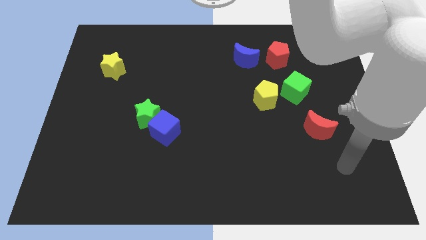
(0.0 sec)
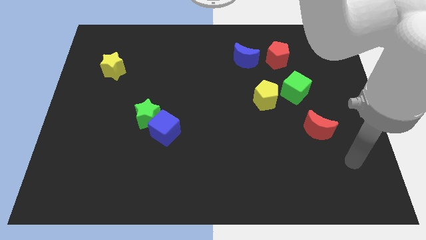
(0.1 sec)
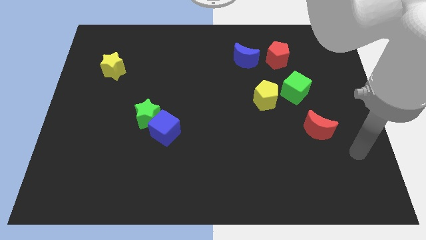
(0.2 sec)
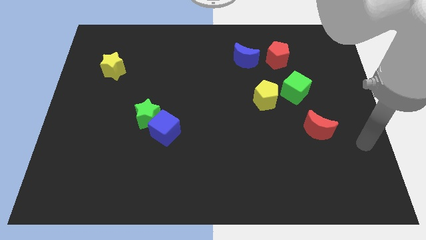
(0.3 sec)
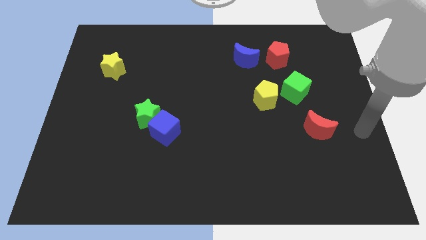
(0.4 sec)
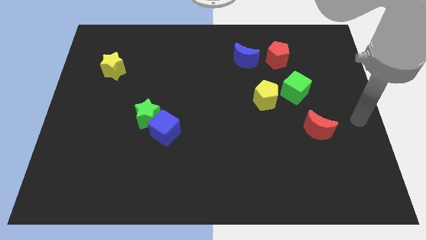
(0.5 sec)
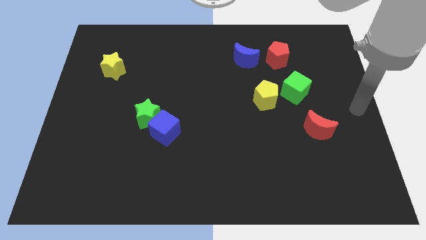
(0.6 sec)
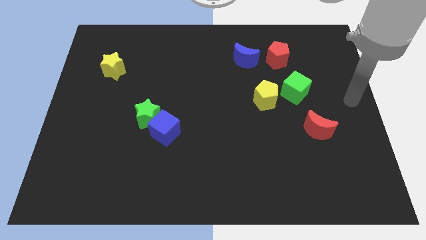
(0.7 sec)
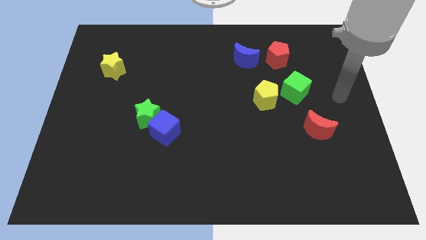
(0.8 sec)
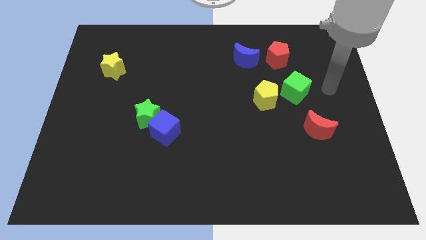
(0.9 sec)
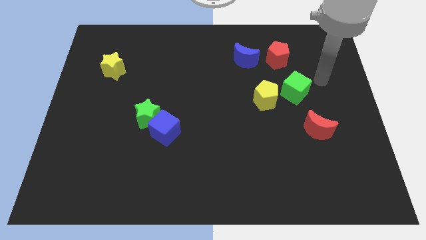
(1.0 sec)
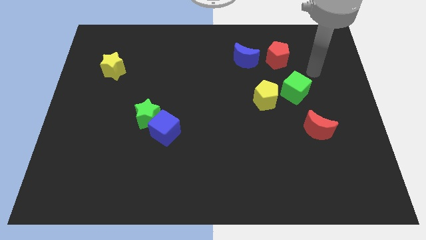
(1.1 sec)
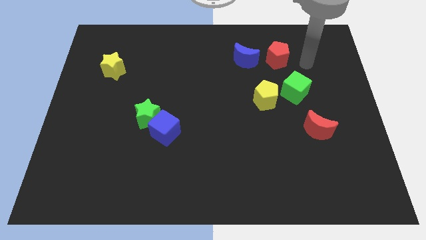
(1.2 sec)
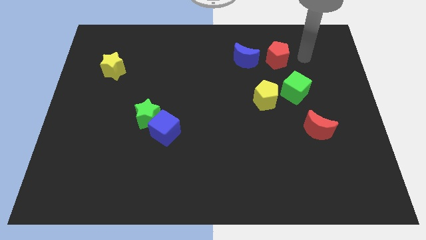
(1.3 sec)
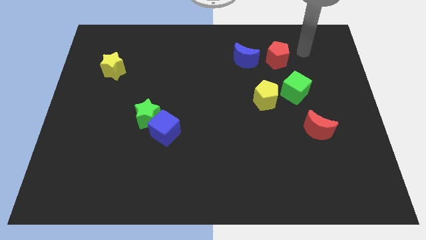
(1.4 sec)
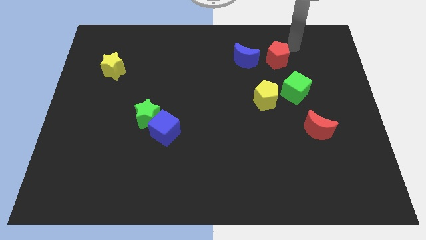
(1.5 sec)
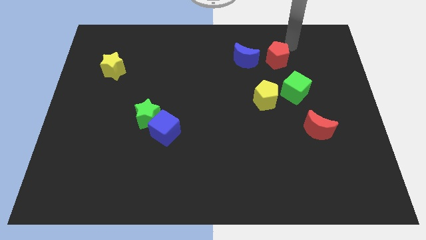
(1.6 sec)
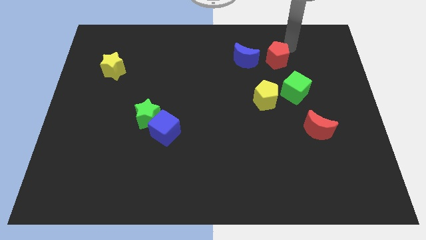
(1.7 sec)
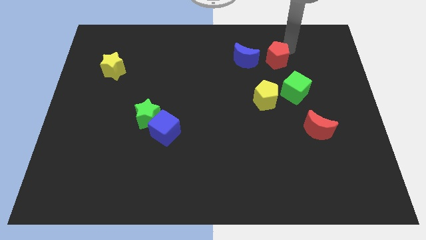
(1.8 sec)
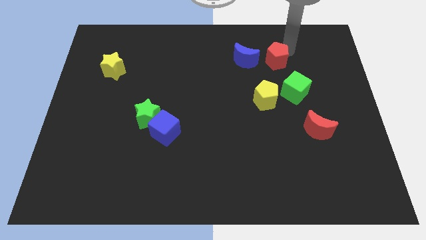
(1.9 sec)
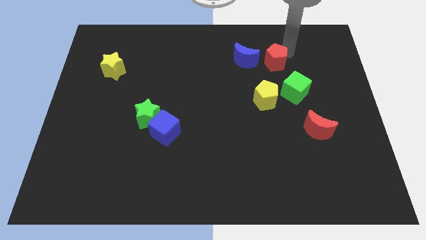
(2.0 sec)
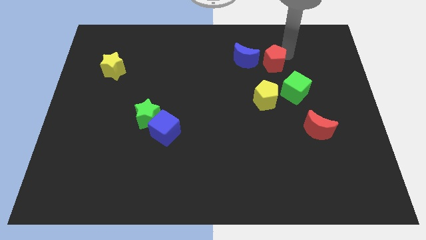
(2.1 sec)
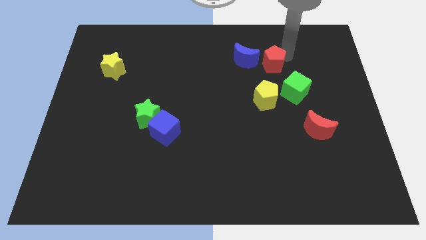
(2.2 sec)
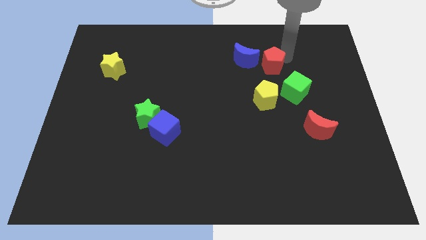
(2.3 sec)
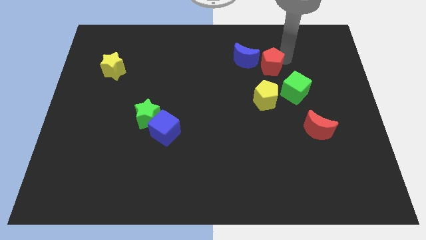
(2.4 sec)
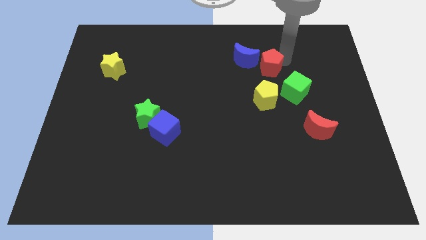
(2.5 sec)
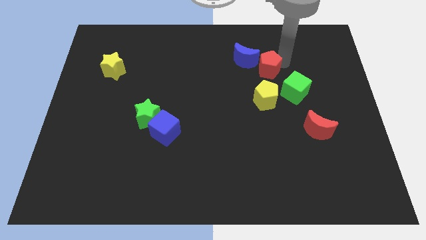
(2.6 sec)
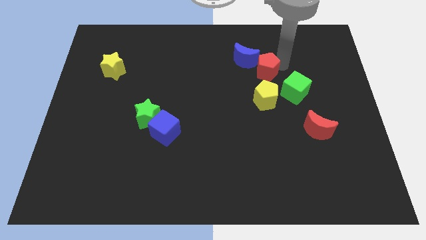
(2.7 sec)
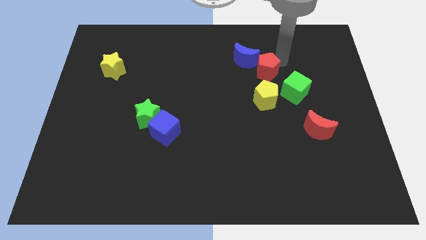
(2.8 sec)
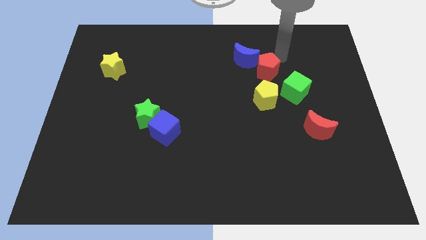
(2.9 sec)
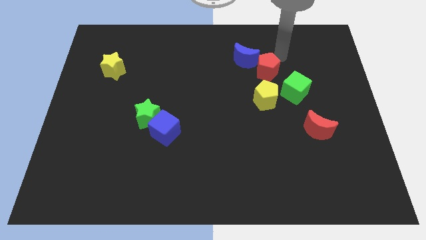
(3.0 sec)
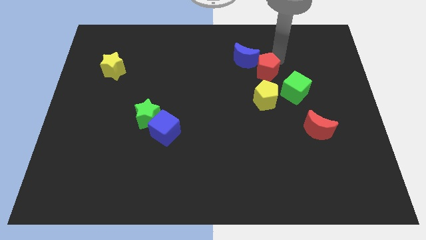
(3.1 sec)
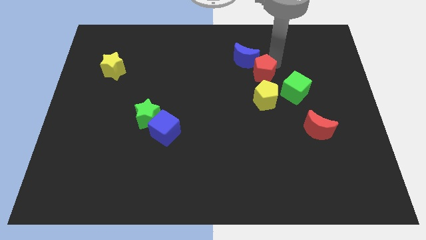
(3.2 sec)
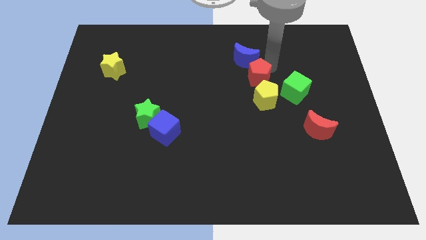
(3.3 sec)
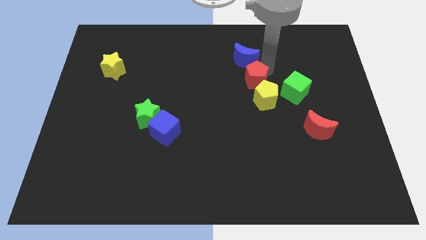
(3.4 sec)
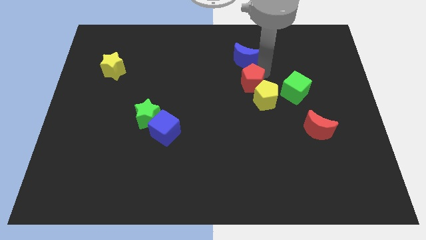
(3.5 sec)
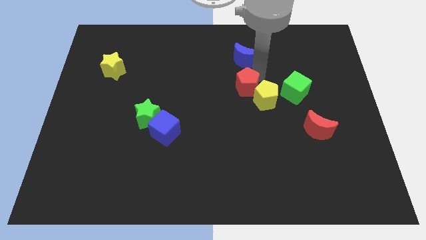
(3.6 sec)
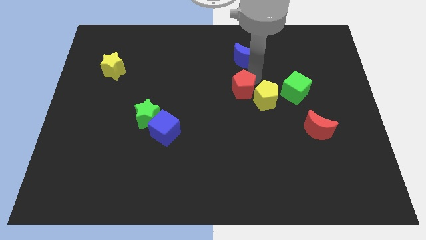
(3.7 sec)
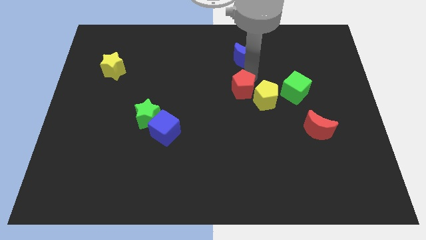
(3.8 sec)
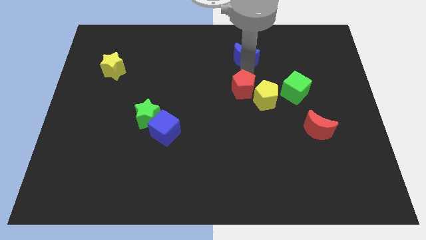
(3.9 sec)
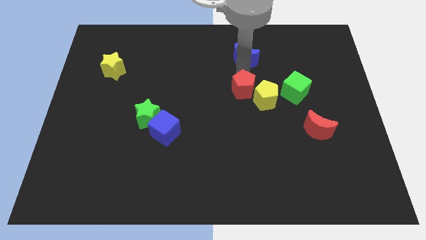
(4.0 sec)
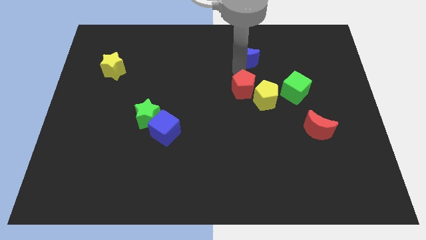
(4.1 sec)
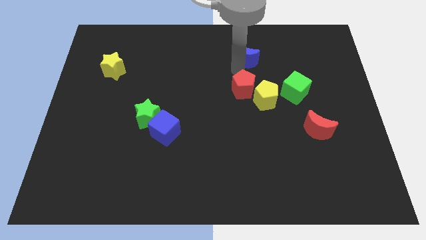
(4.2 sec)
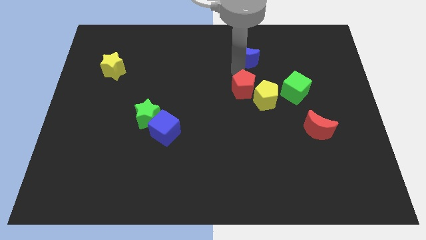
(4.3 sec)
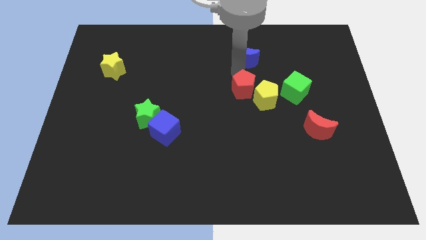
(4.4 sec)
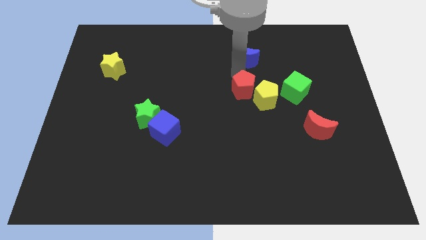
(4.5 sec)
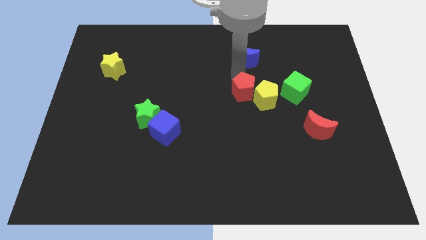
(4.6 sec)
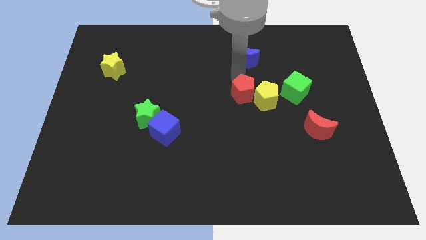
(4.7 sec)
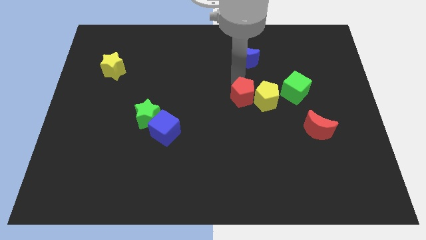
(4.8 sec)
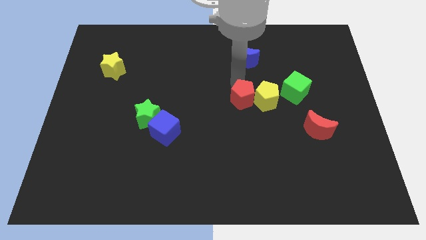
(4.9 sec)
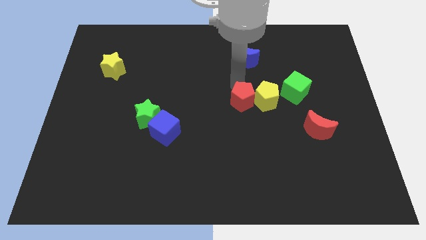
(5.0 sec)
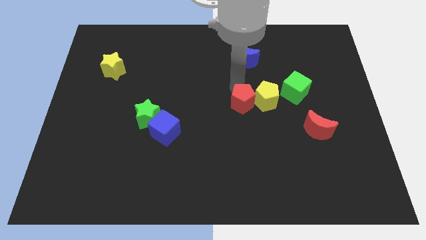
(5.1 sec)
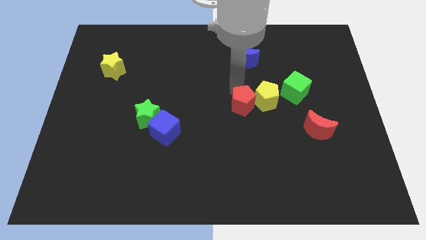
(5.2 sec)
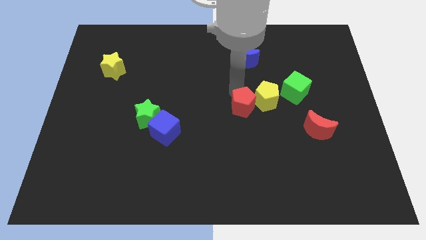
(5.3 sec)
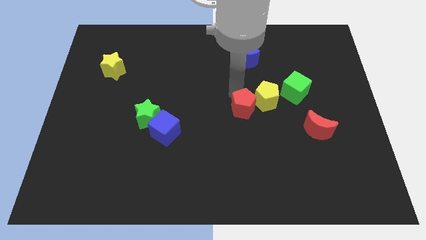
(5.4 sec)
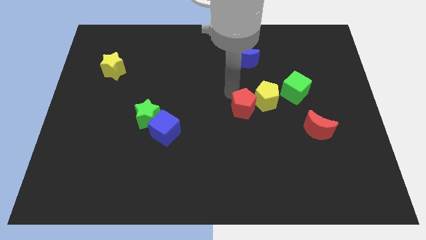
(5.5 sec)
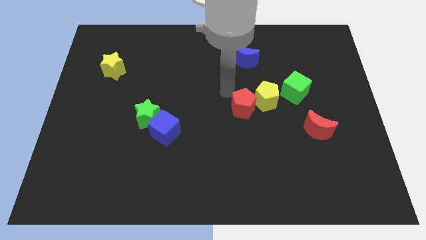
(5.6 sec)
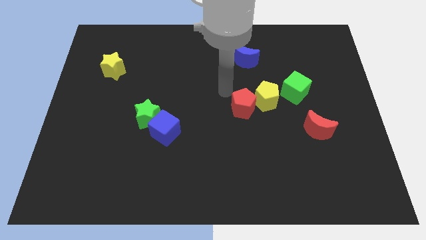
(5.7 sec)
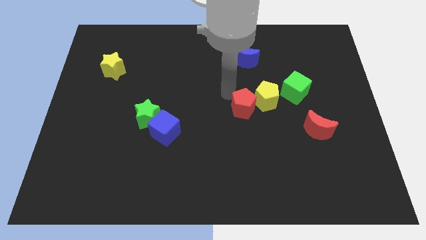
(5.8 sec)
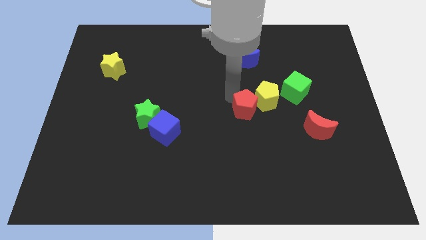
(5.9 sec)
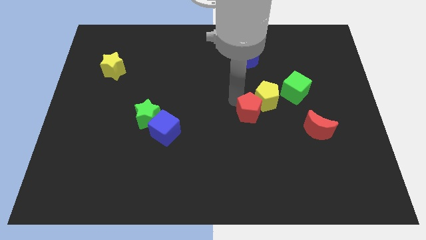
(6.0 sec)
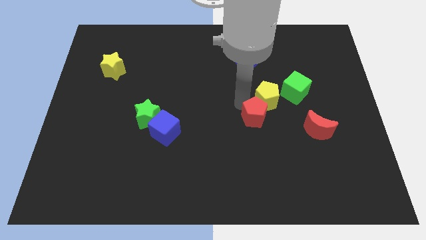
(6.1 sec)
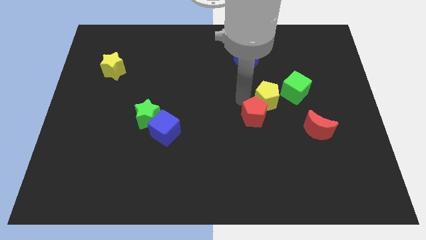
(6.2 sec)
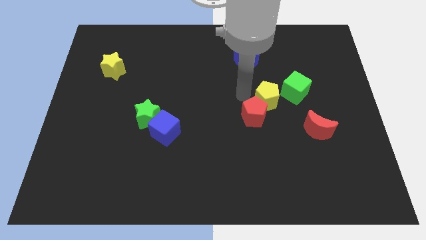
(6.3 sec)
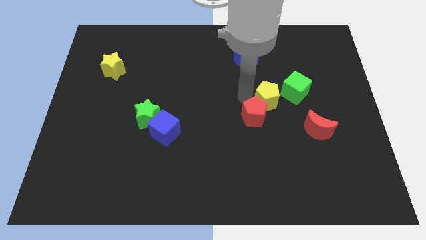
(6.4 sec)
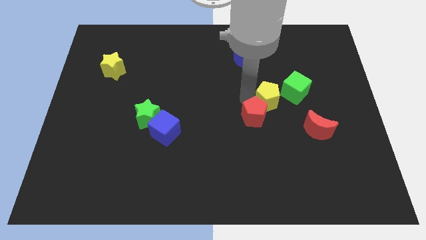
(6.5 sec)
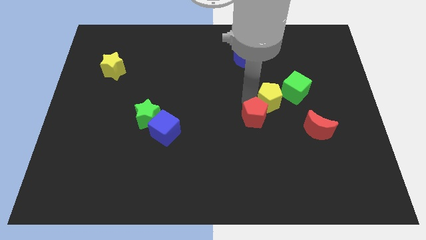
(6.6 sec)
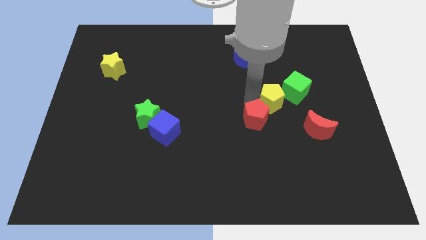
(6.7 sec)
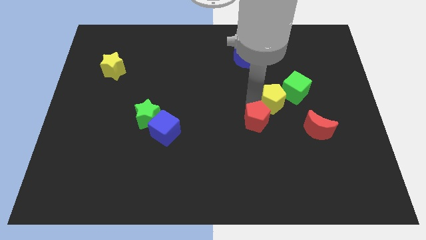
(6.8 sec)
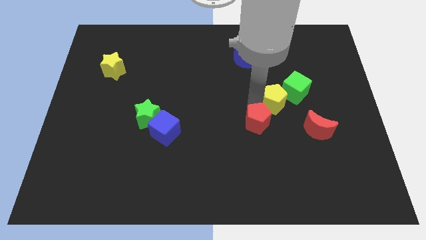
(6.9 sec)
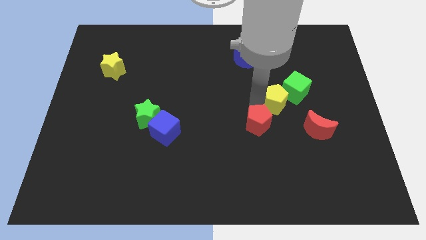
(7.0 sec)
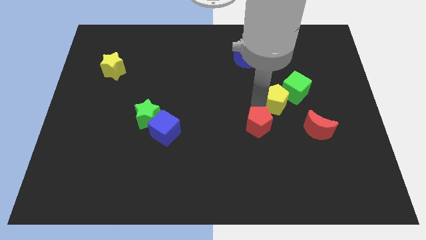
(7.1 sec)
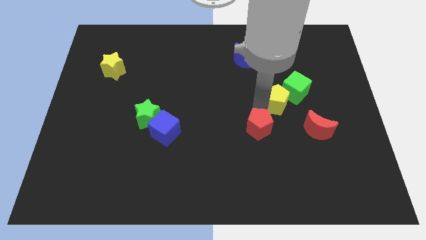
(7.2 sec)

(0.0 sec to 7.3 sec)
move the red pentagon downwards

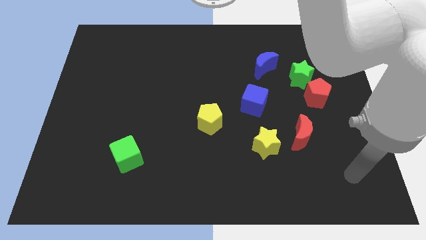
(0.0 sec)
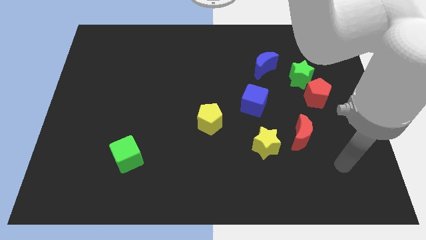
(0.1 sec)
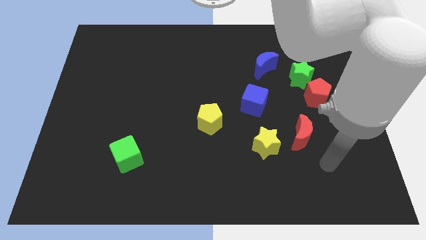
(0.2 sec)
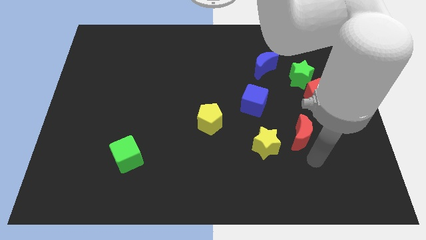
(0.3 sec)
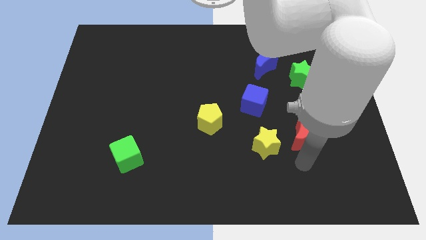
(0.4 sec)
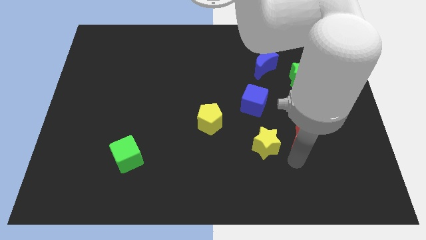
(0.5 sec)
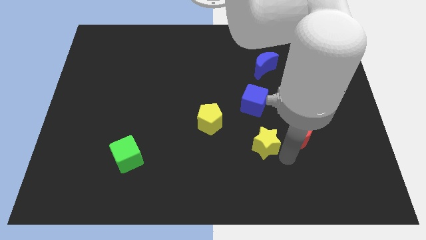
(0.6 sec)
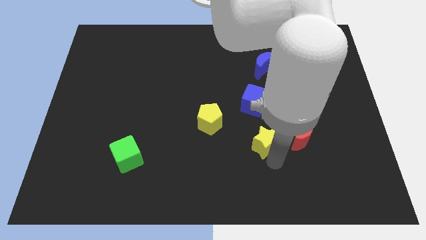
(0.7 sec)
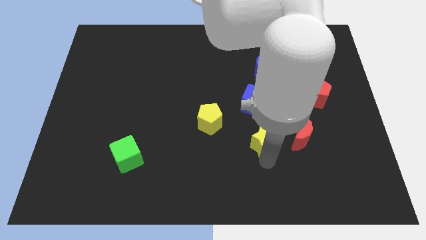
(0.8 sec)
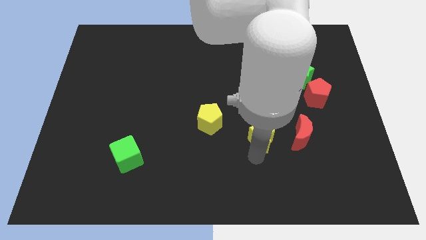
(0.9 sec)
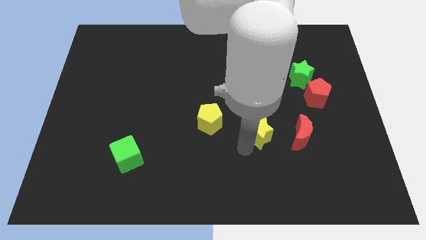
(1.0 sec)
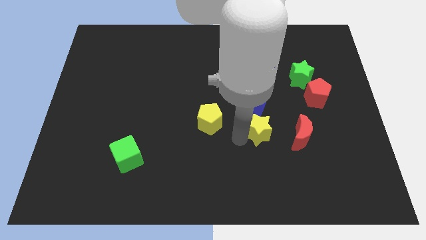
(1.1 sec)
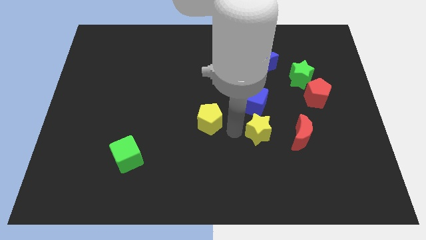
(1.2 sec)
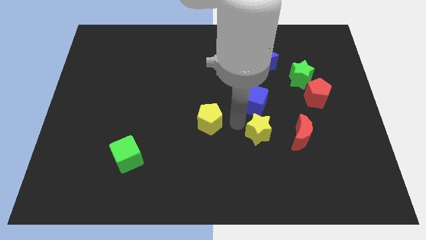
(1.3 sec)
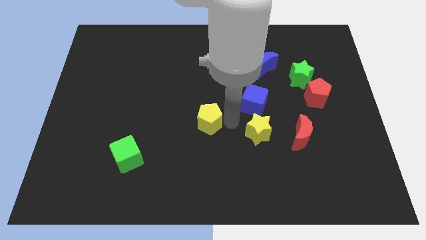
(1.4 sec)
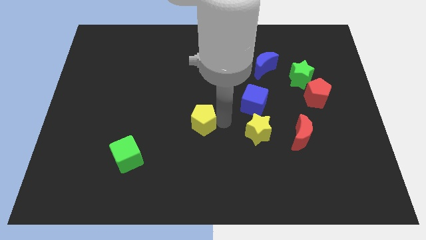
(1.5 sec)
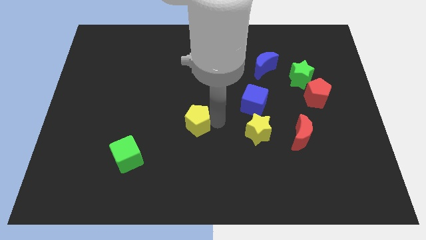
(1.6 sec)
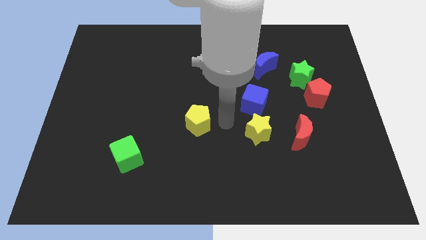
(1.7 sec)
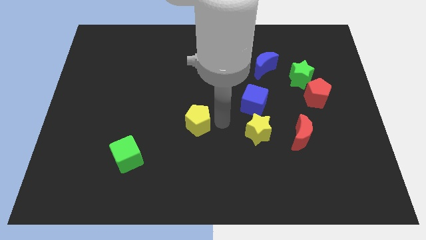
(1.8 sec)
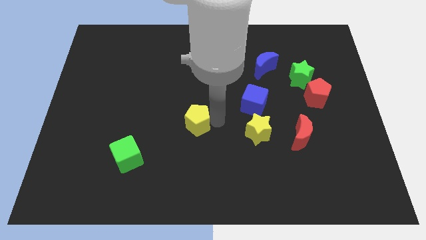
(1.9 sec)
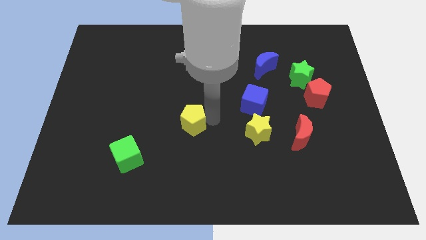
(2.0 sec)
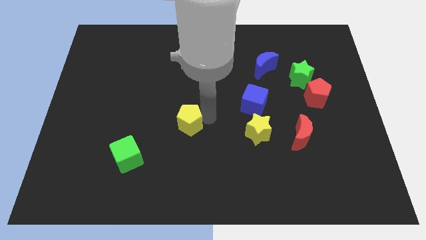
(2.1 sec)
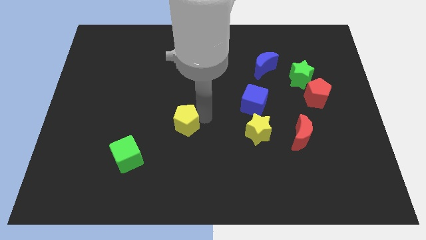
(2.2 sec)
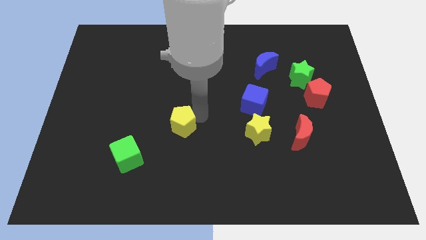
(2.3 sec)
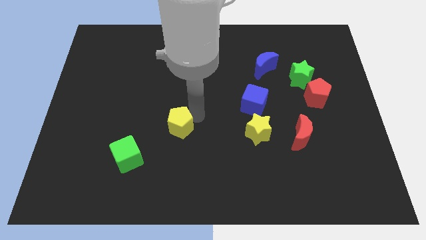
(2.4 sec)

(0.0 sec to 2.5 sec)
push the yellow pentagon to the left a little bit
